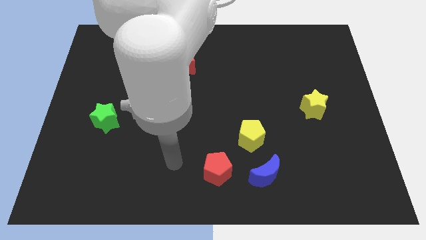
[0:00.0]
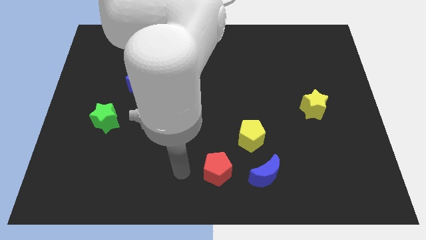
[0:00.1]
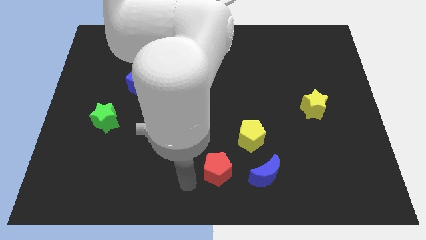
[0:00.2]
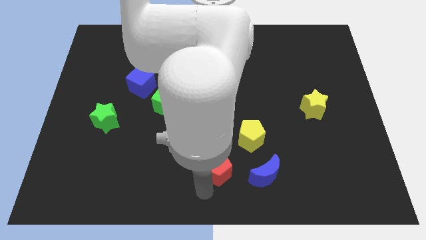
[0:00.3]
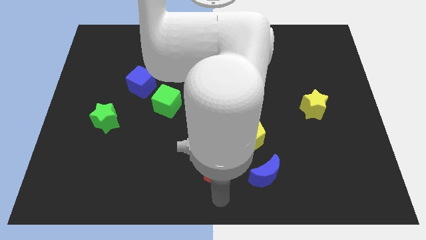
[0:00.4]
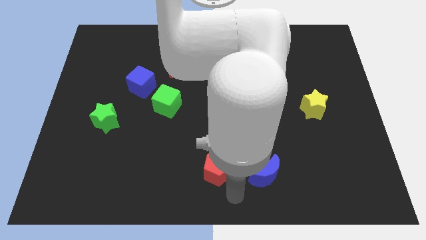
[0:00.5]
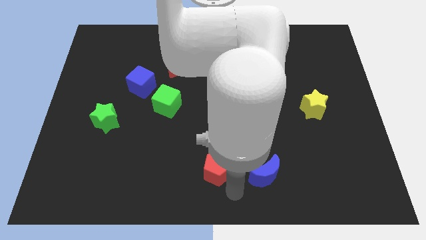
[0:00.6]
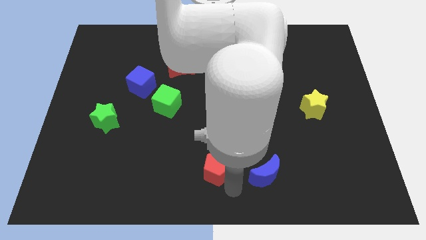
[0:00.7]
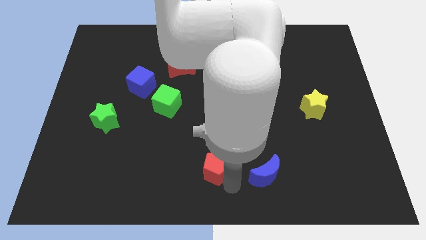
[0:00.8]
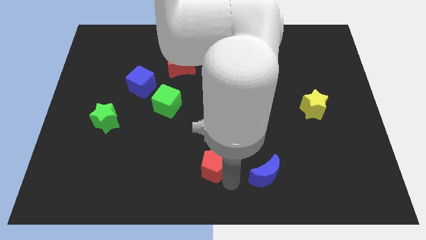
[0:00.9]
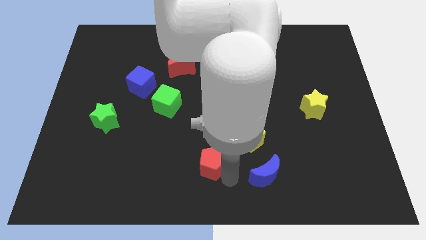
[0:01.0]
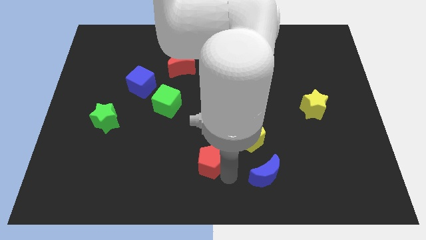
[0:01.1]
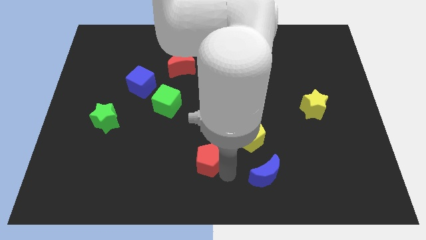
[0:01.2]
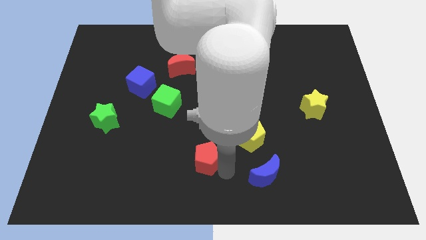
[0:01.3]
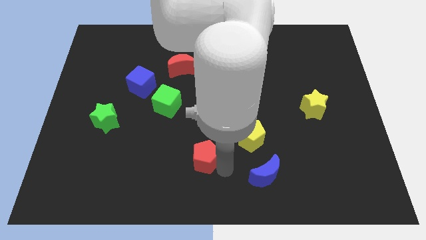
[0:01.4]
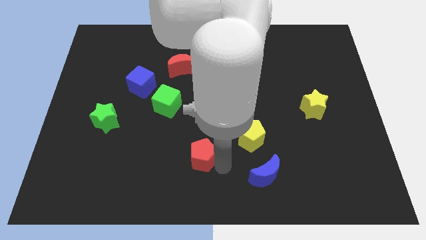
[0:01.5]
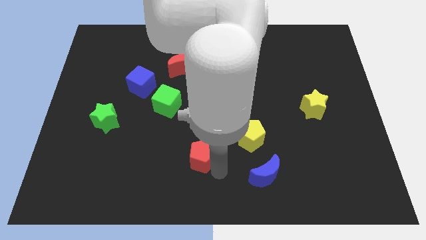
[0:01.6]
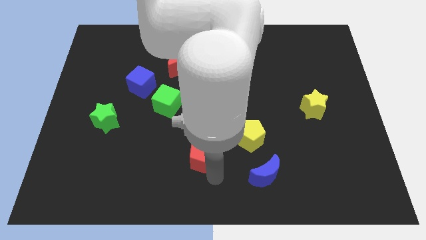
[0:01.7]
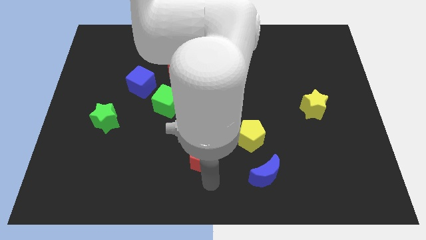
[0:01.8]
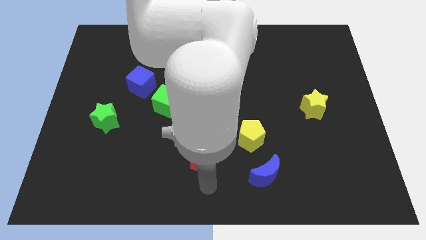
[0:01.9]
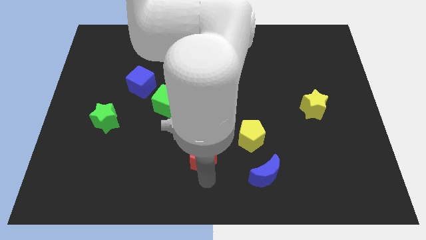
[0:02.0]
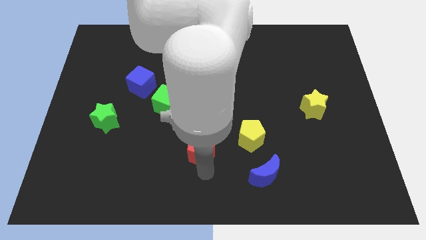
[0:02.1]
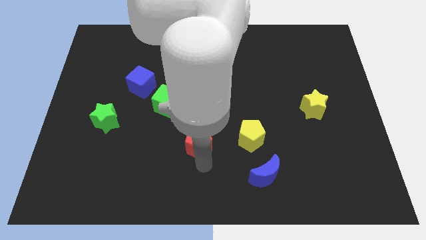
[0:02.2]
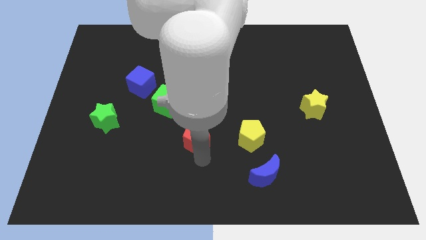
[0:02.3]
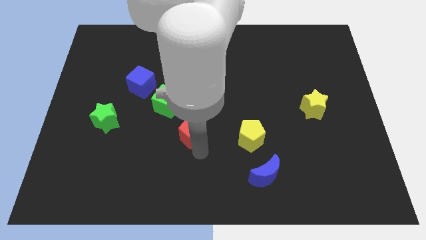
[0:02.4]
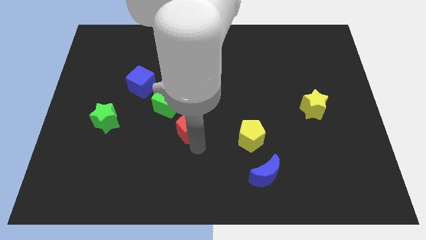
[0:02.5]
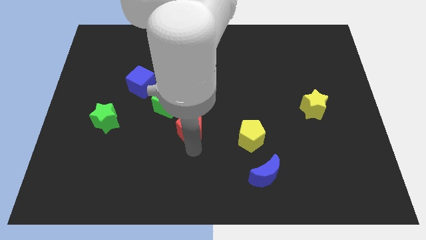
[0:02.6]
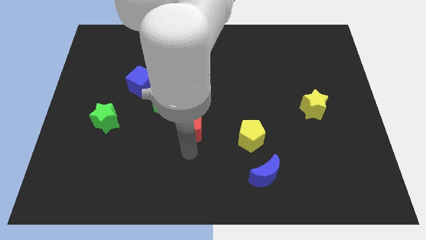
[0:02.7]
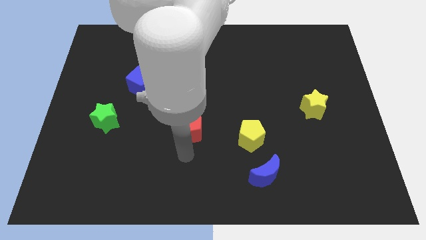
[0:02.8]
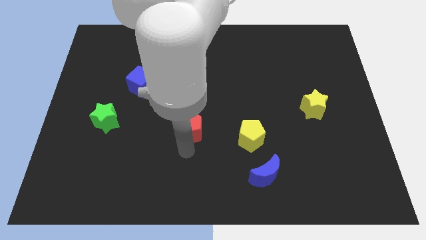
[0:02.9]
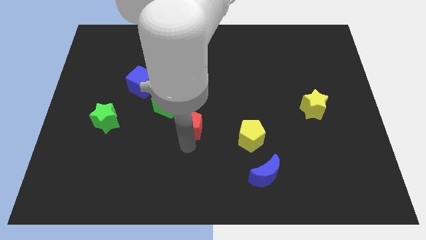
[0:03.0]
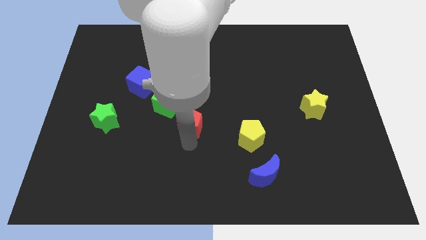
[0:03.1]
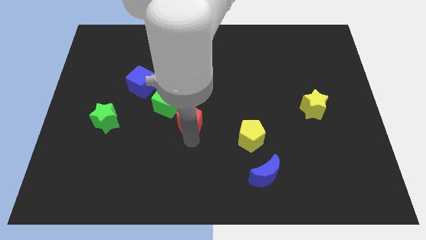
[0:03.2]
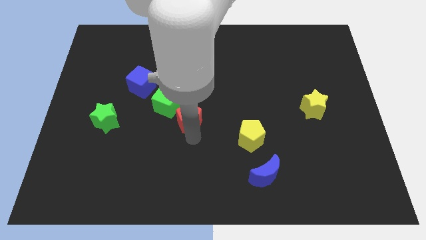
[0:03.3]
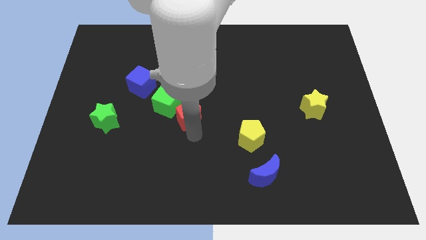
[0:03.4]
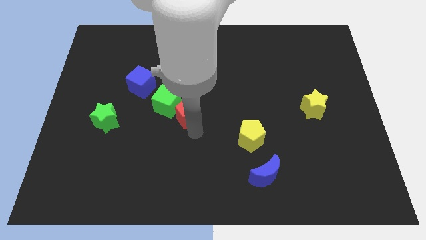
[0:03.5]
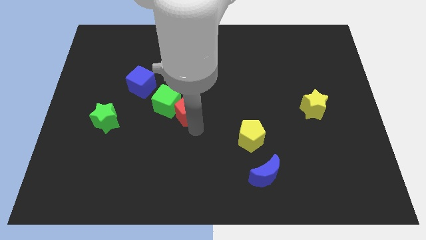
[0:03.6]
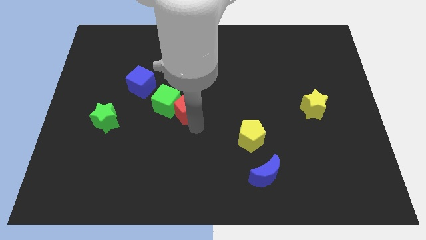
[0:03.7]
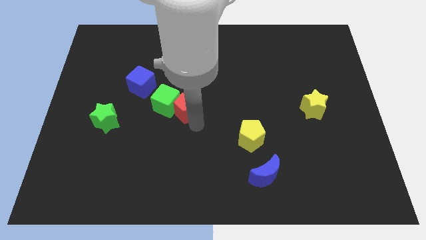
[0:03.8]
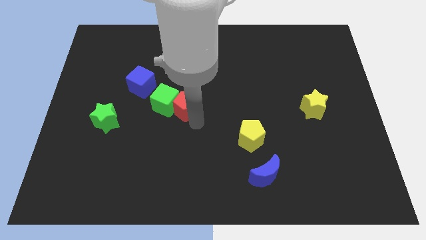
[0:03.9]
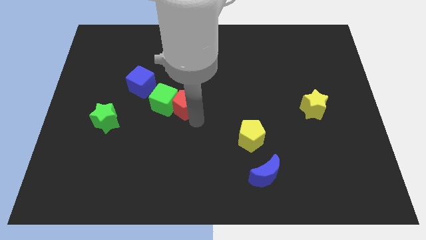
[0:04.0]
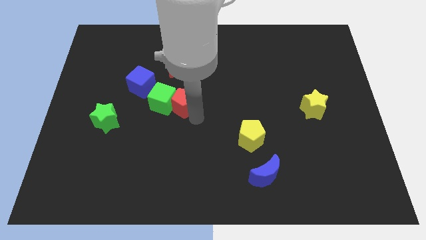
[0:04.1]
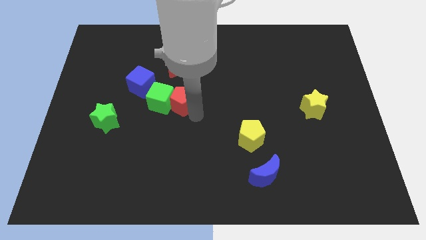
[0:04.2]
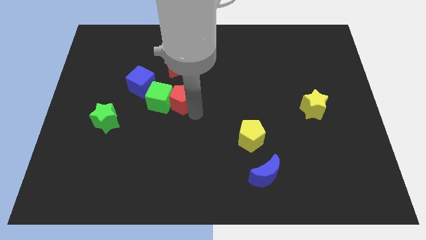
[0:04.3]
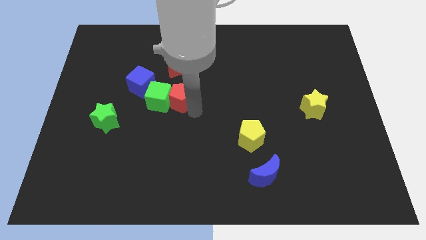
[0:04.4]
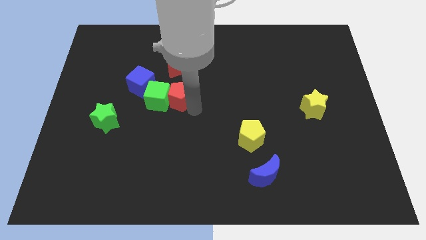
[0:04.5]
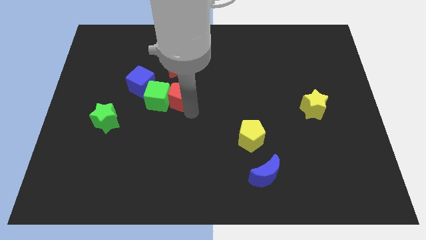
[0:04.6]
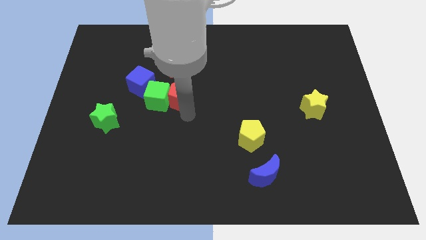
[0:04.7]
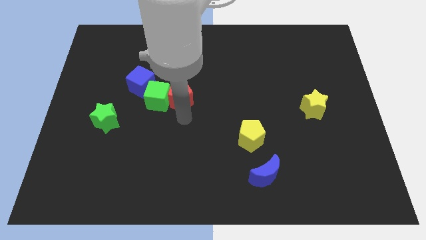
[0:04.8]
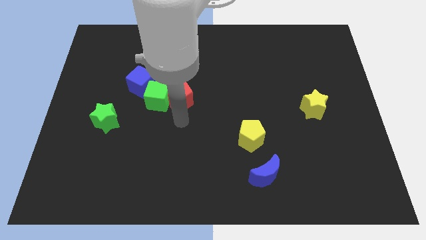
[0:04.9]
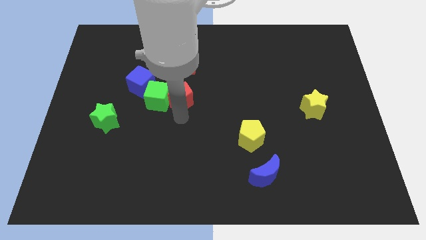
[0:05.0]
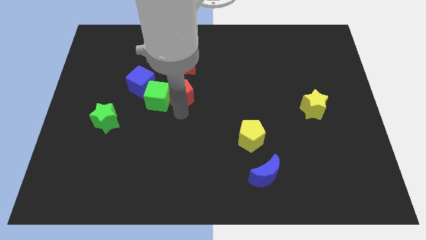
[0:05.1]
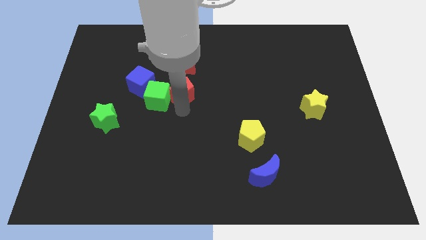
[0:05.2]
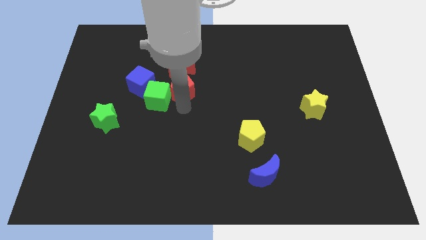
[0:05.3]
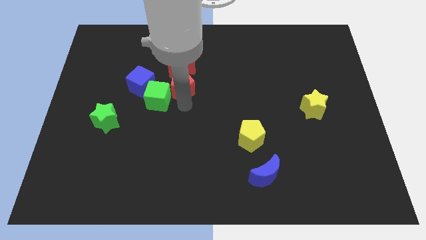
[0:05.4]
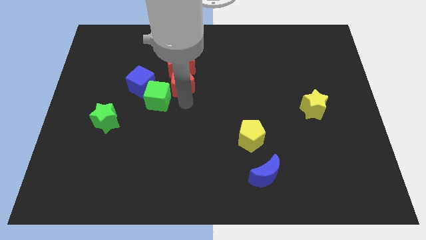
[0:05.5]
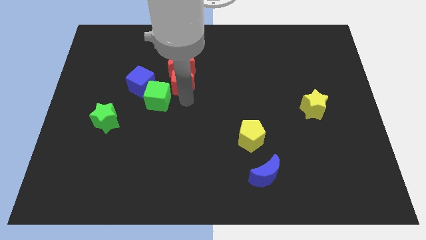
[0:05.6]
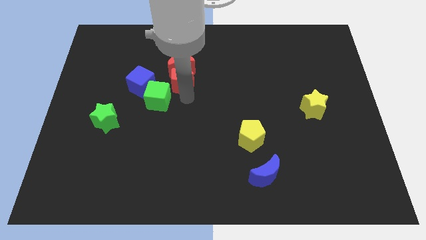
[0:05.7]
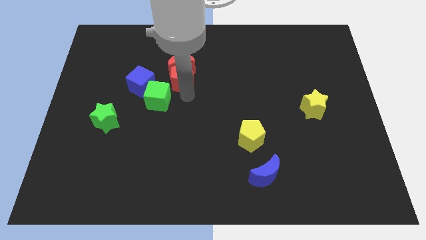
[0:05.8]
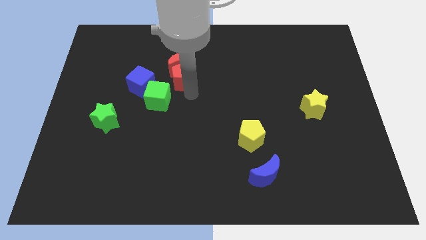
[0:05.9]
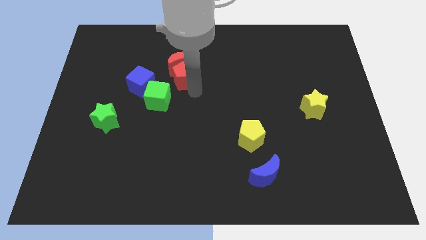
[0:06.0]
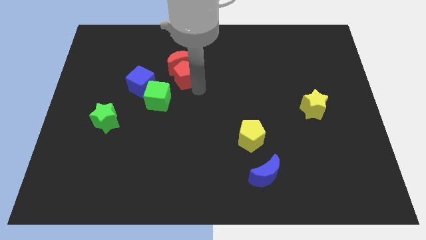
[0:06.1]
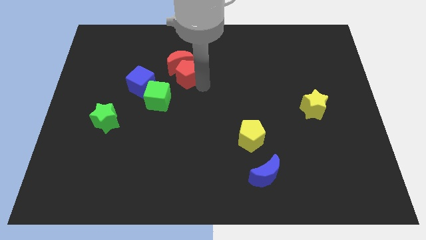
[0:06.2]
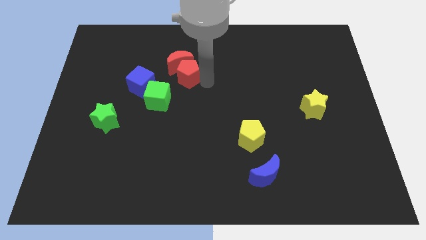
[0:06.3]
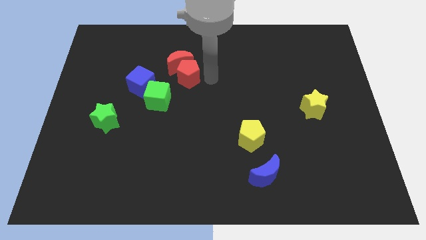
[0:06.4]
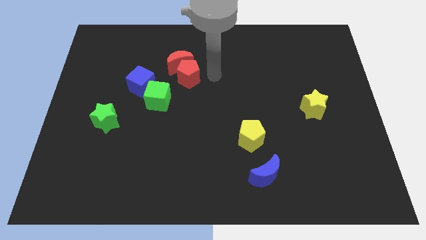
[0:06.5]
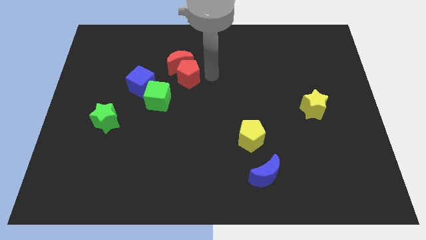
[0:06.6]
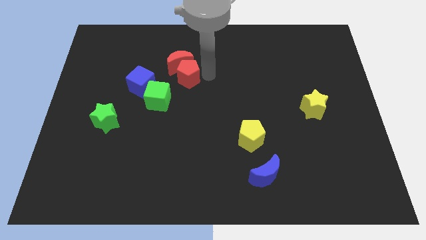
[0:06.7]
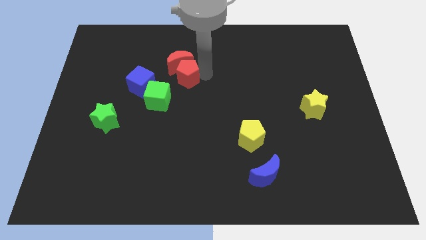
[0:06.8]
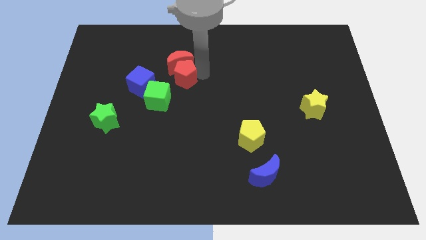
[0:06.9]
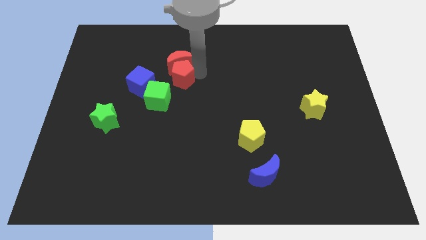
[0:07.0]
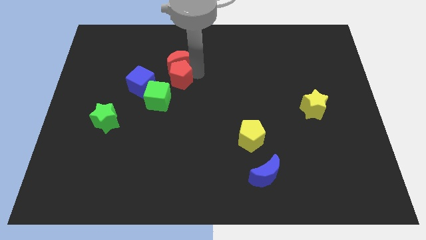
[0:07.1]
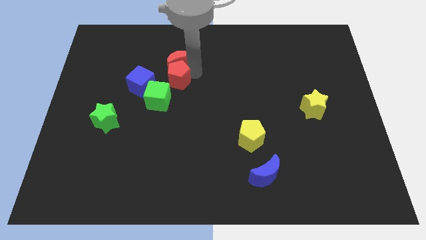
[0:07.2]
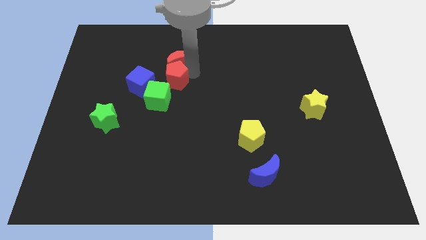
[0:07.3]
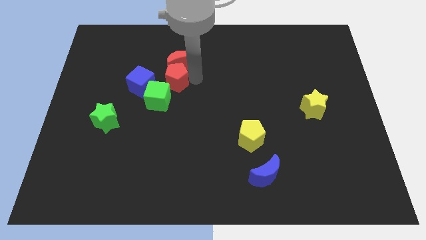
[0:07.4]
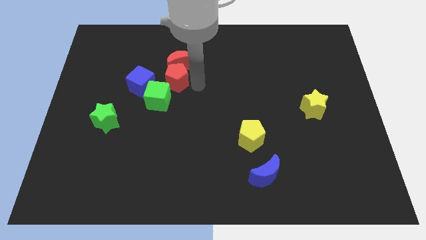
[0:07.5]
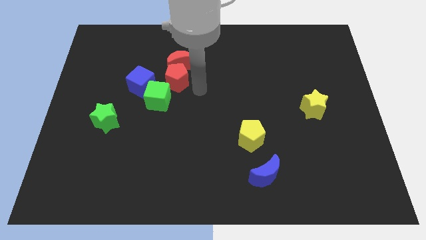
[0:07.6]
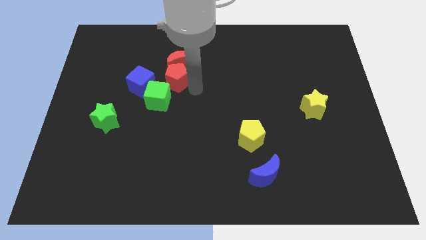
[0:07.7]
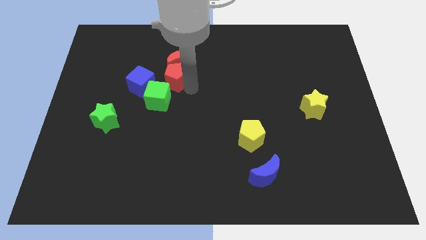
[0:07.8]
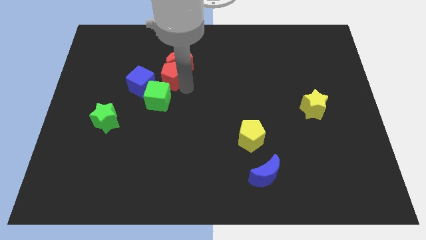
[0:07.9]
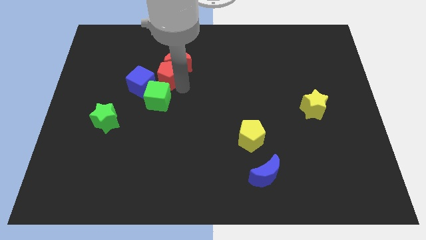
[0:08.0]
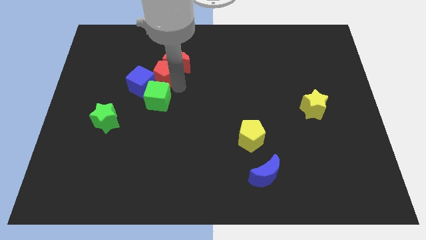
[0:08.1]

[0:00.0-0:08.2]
put the red pentagon left of the red moon
